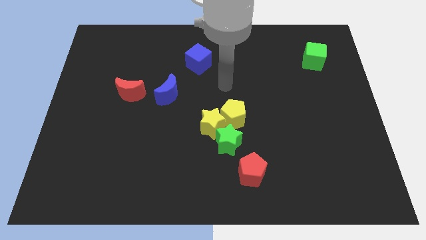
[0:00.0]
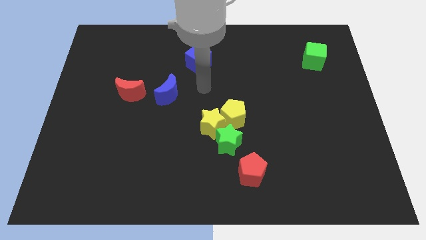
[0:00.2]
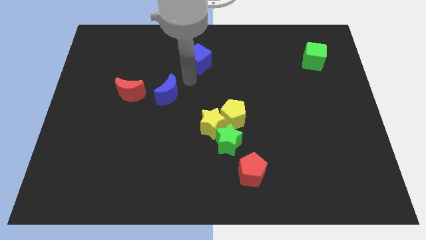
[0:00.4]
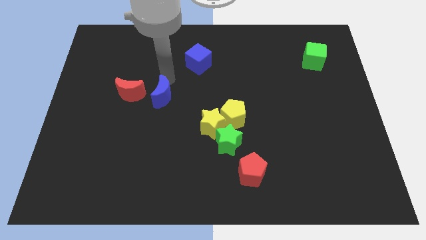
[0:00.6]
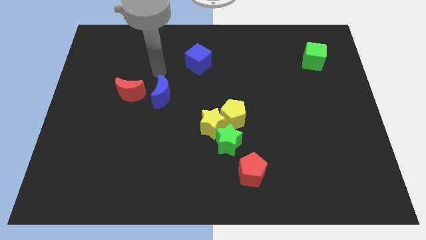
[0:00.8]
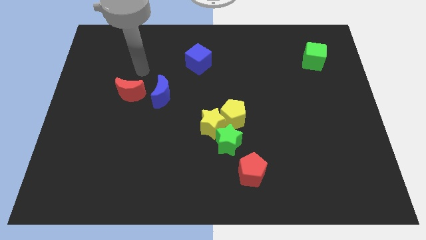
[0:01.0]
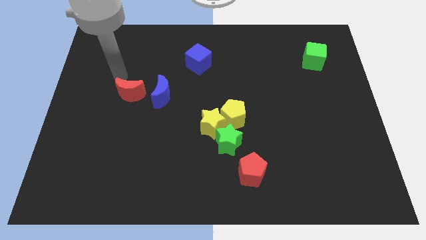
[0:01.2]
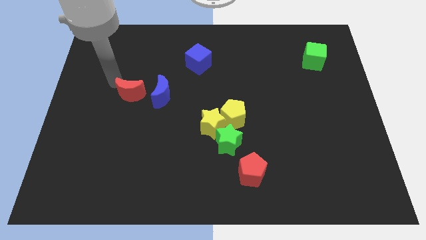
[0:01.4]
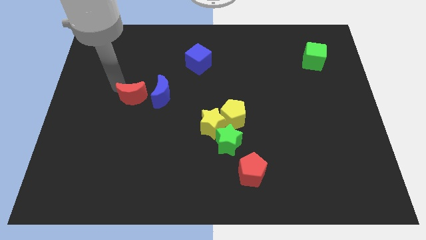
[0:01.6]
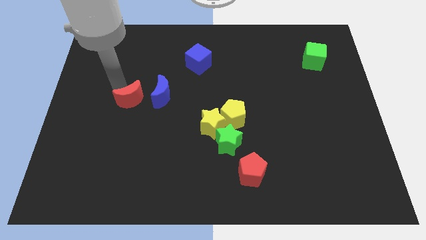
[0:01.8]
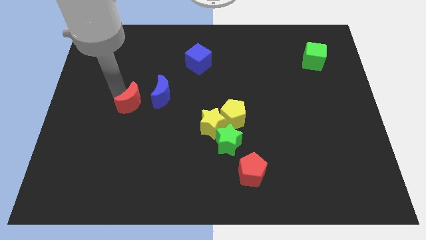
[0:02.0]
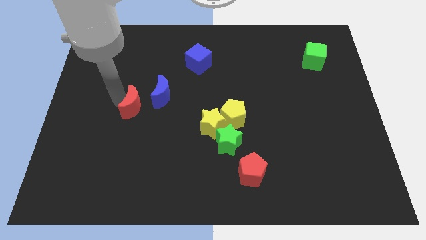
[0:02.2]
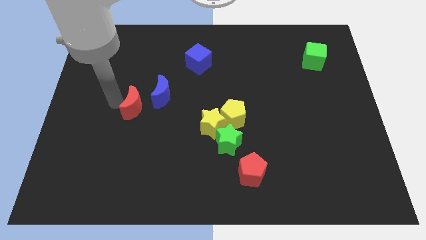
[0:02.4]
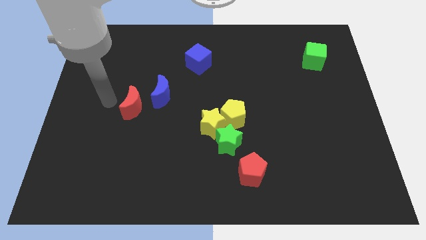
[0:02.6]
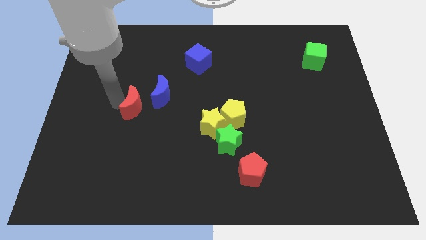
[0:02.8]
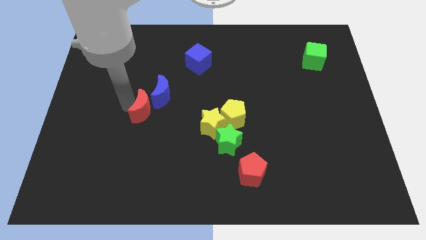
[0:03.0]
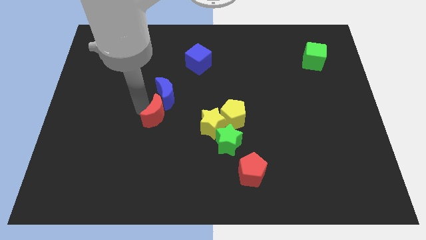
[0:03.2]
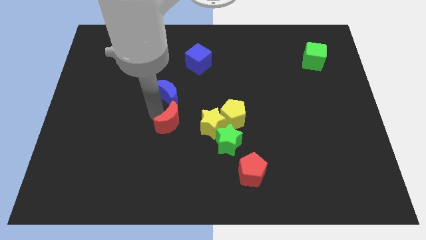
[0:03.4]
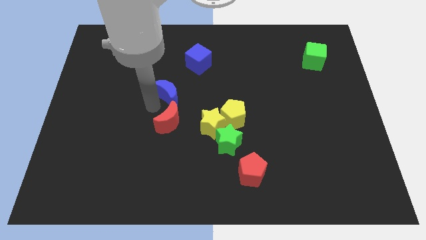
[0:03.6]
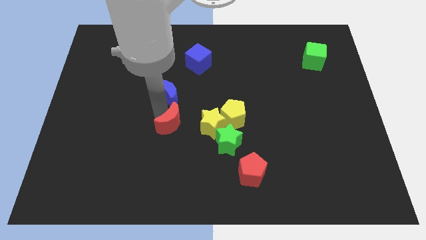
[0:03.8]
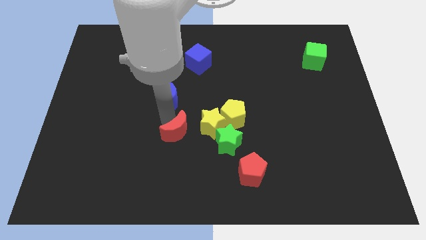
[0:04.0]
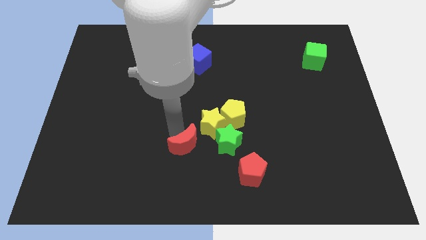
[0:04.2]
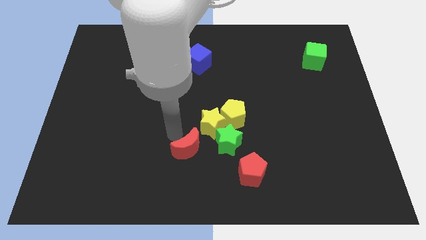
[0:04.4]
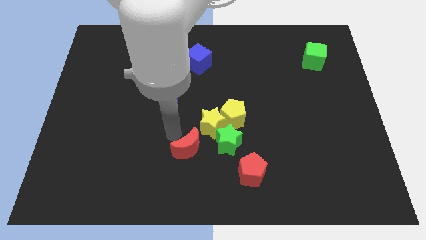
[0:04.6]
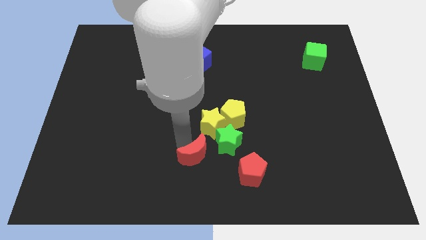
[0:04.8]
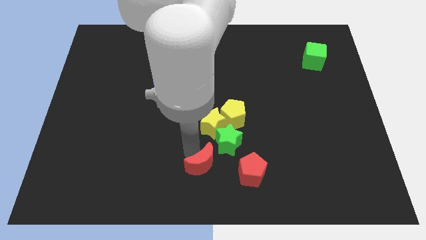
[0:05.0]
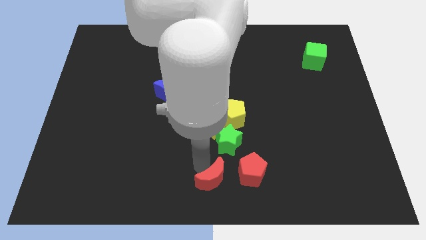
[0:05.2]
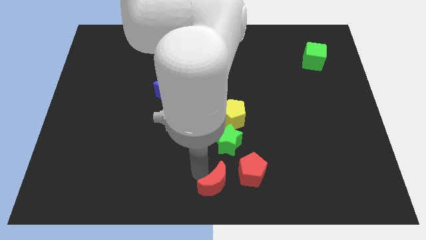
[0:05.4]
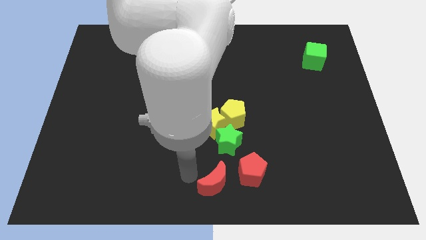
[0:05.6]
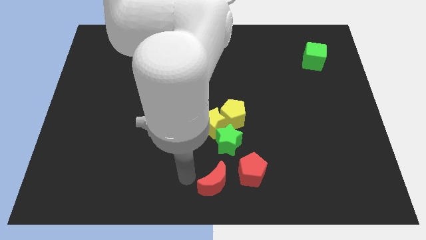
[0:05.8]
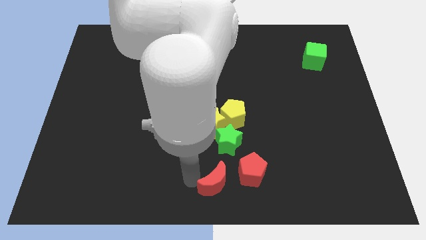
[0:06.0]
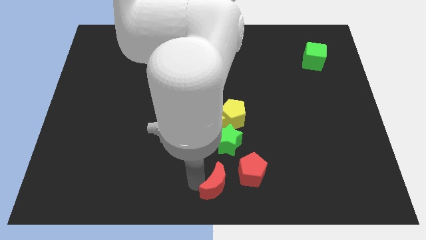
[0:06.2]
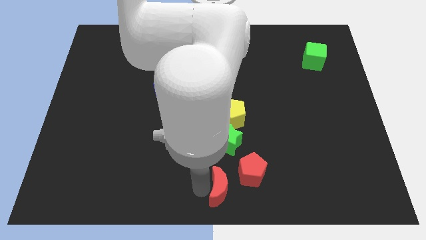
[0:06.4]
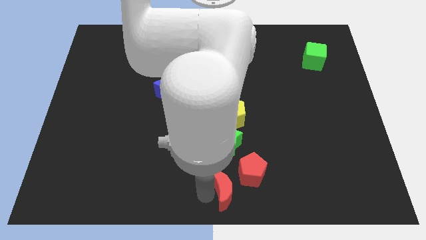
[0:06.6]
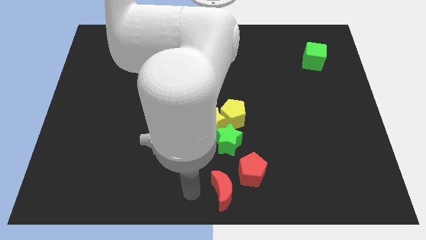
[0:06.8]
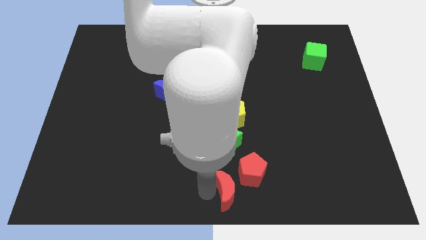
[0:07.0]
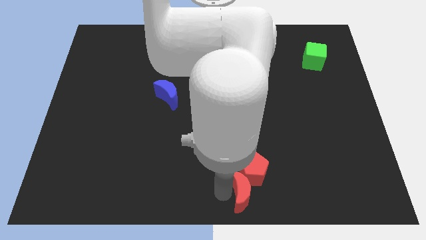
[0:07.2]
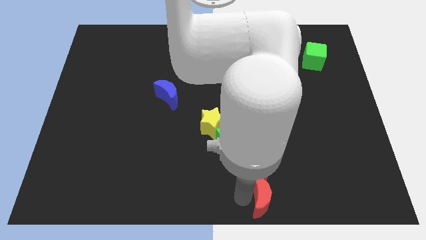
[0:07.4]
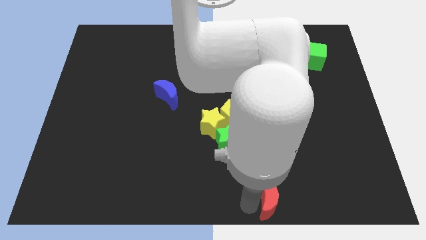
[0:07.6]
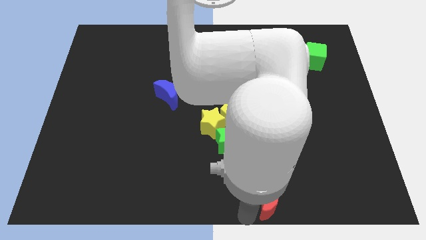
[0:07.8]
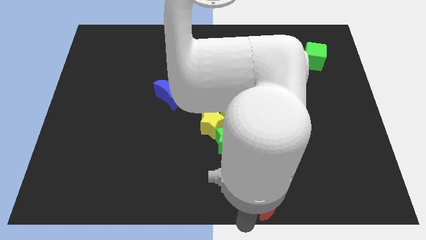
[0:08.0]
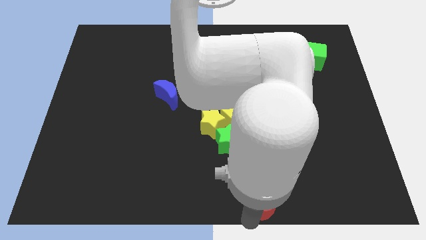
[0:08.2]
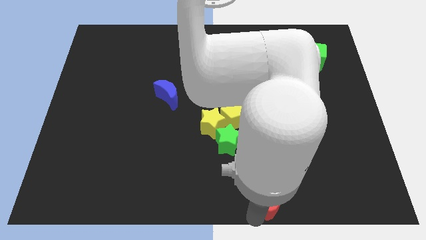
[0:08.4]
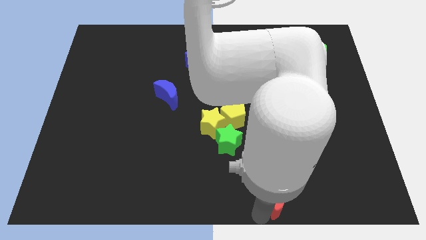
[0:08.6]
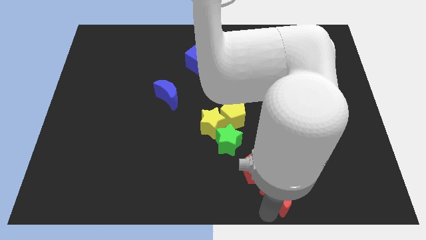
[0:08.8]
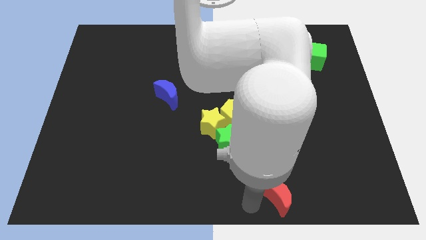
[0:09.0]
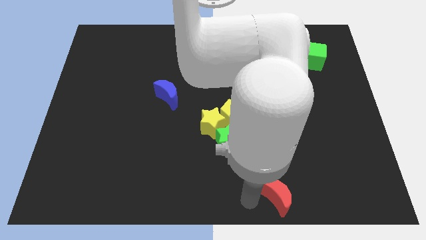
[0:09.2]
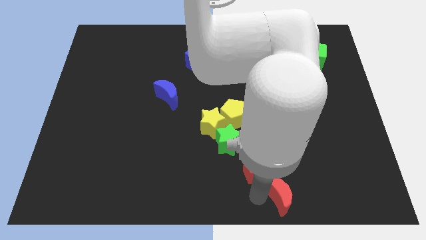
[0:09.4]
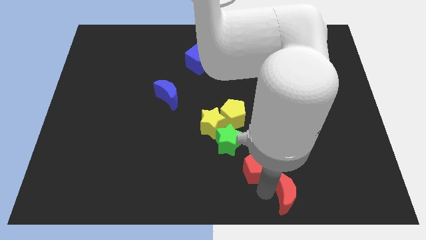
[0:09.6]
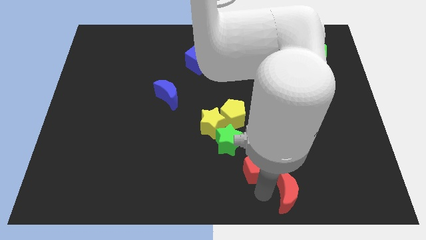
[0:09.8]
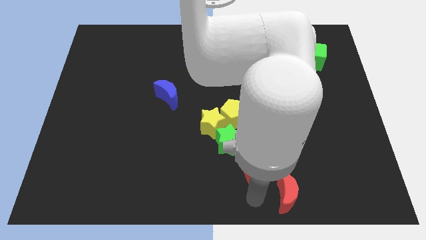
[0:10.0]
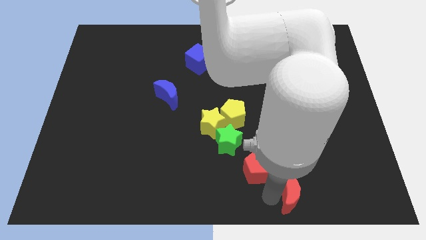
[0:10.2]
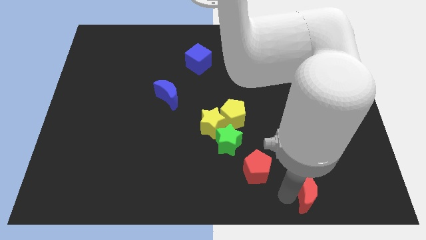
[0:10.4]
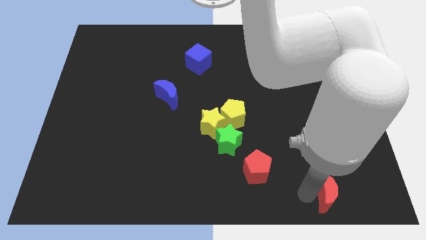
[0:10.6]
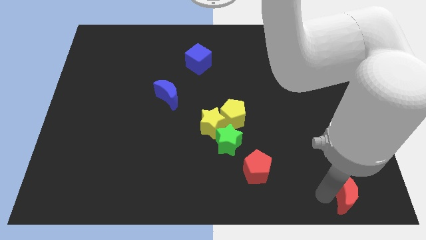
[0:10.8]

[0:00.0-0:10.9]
put the red moon to the bottom right corner
